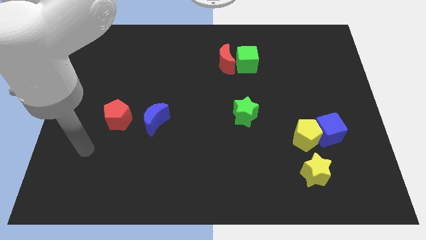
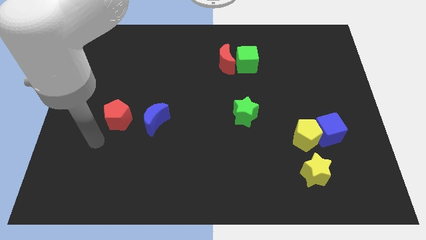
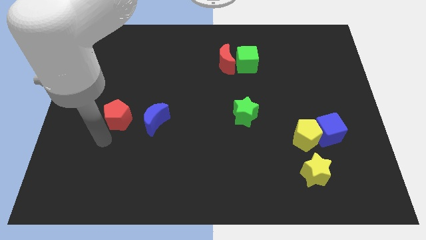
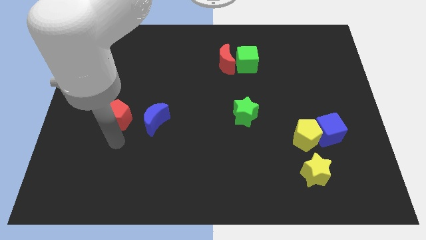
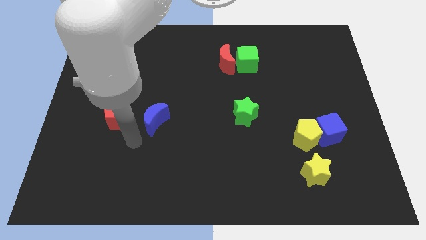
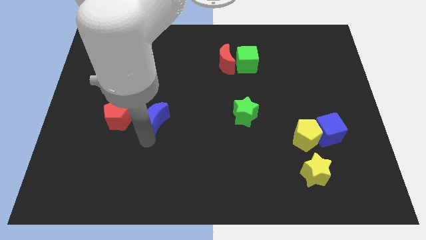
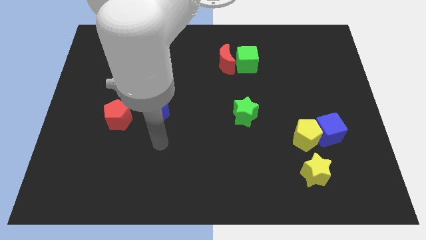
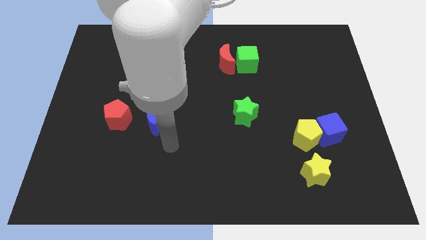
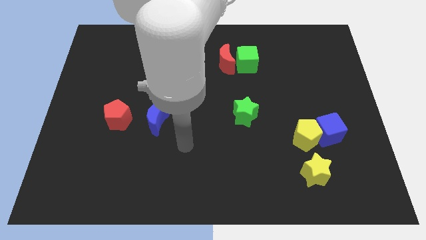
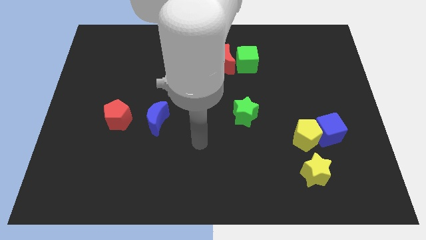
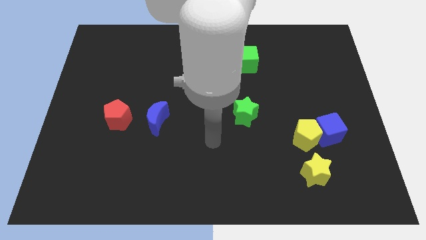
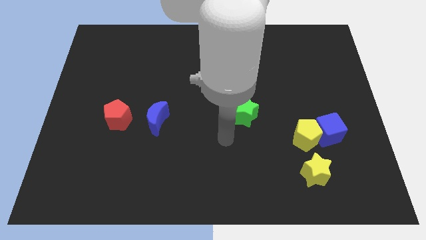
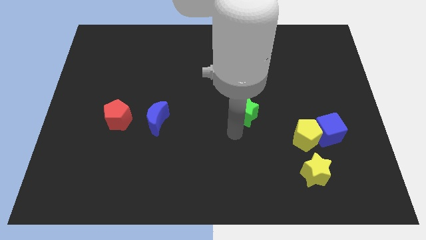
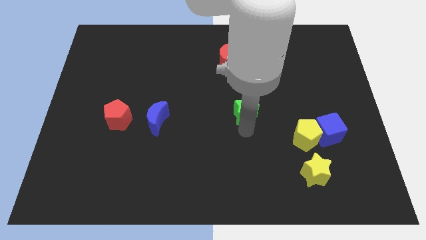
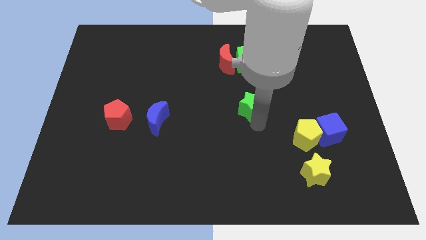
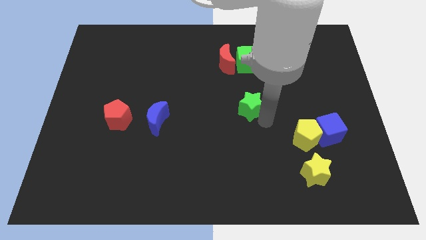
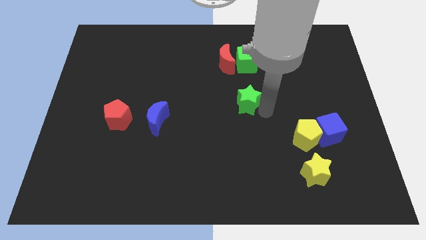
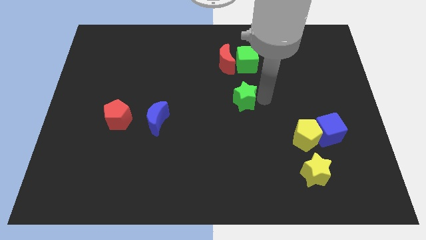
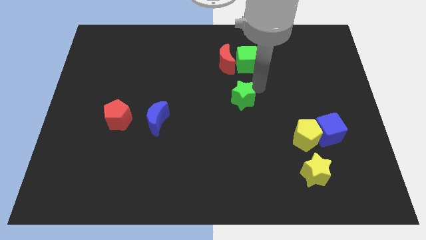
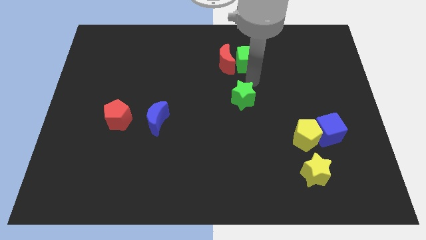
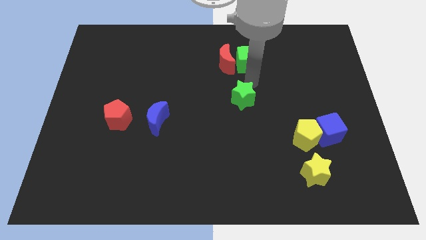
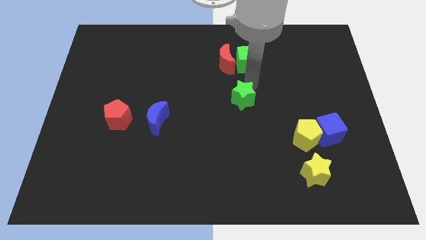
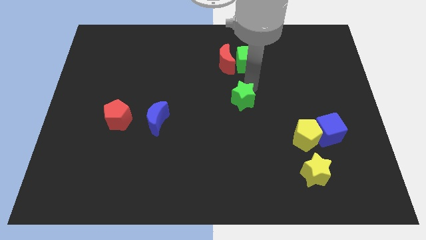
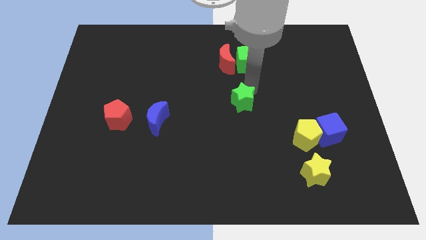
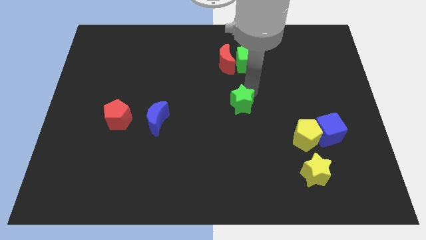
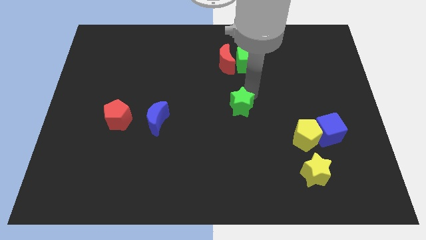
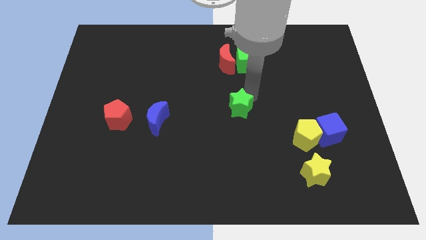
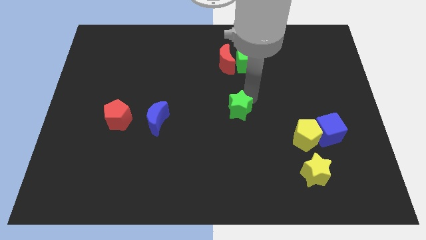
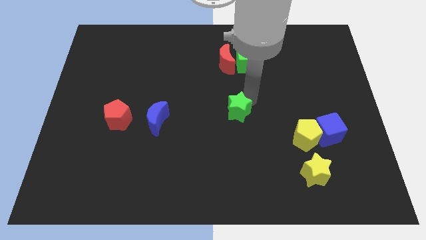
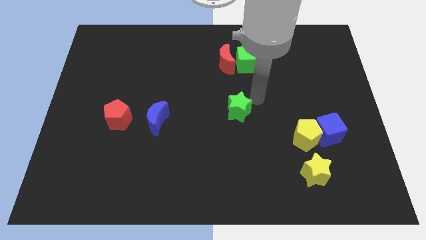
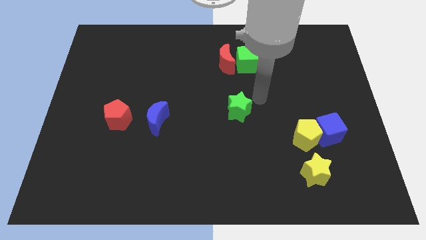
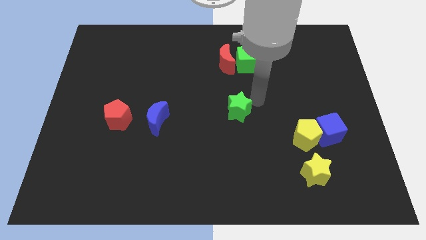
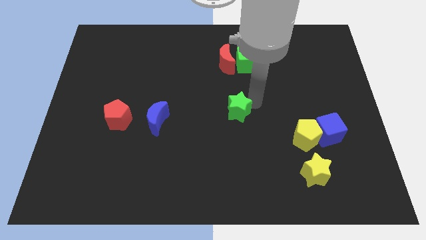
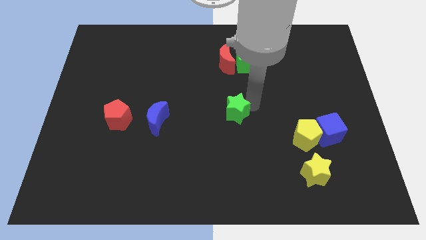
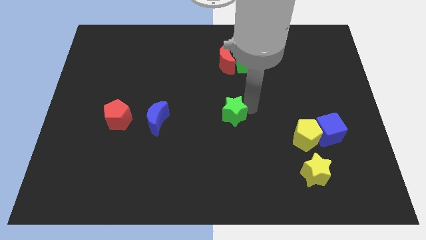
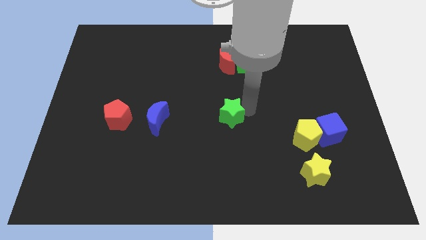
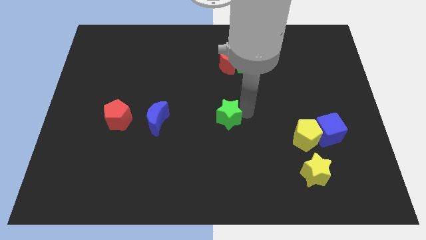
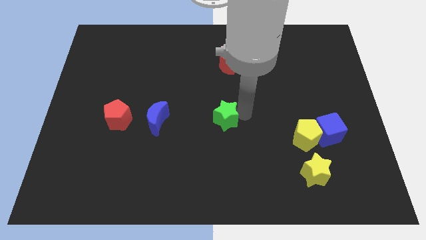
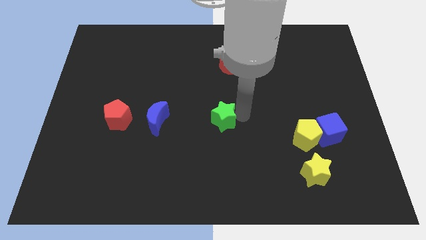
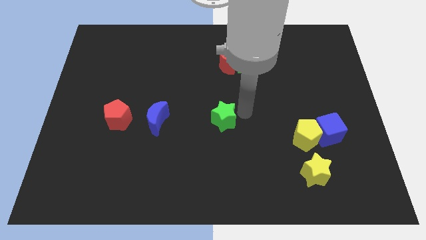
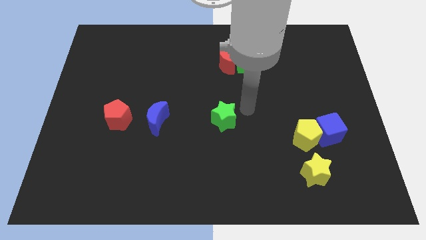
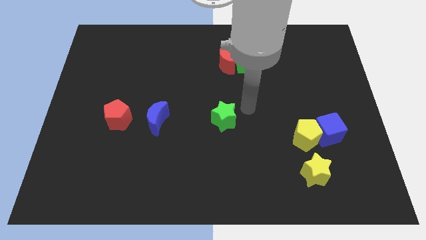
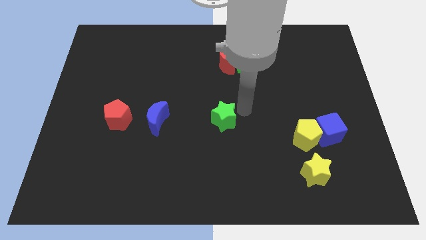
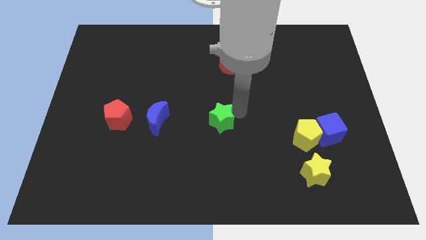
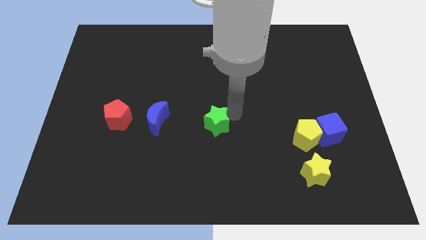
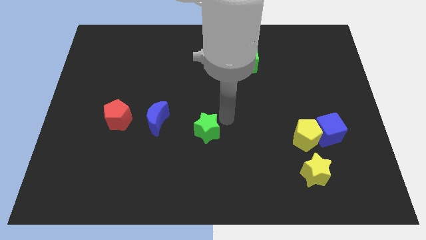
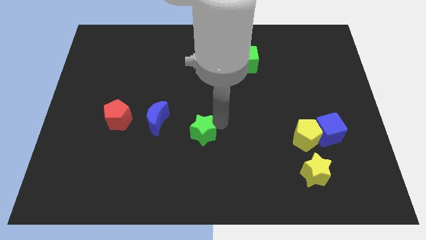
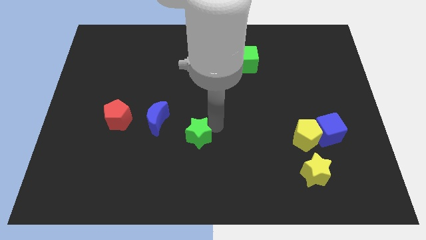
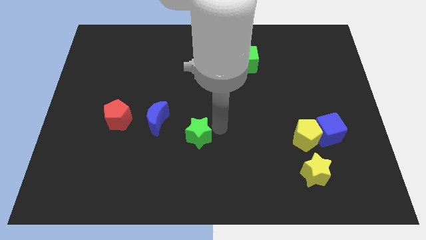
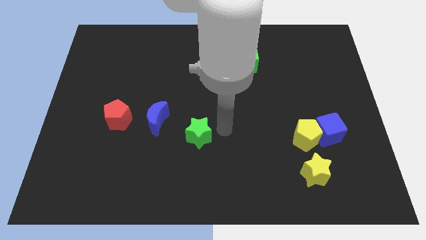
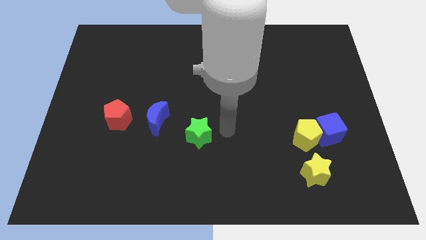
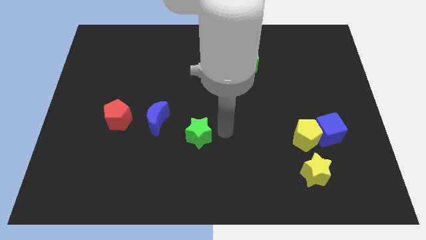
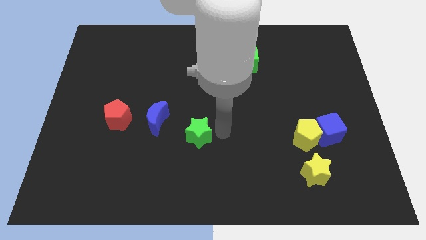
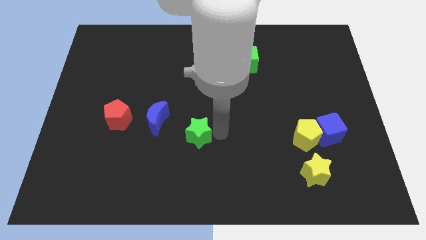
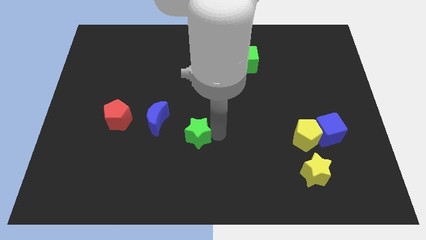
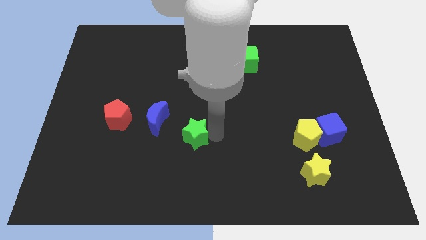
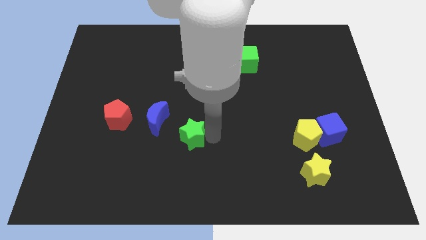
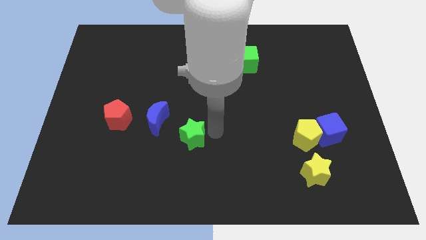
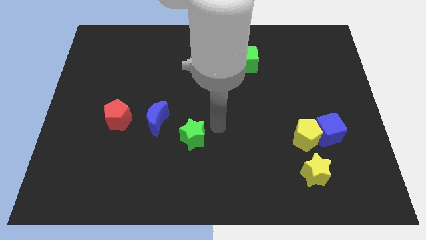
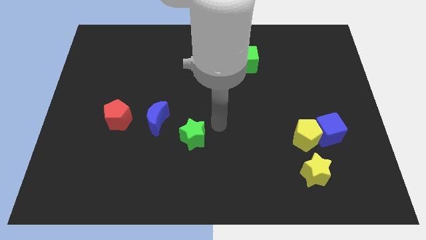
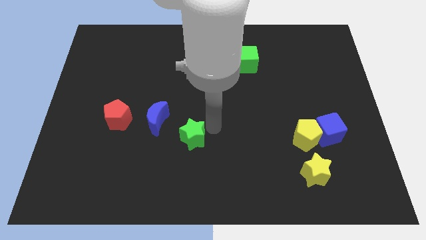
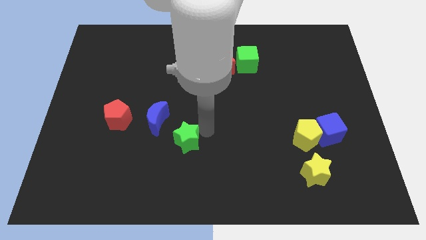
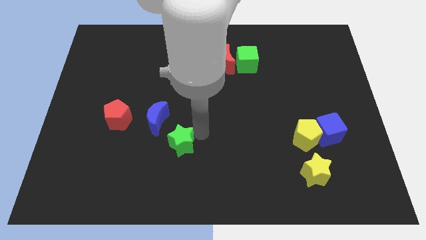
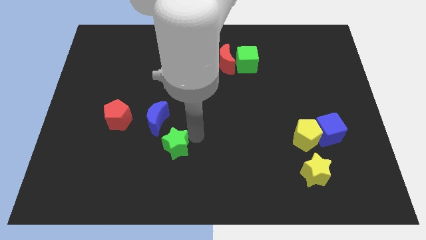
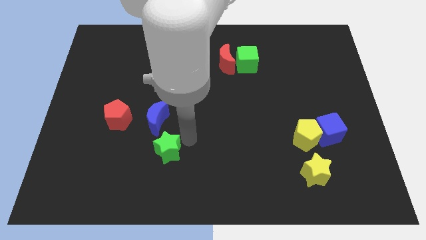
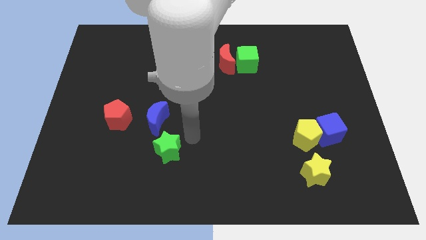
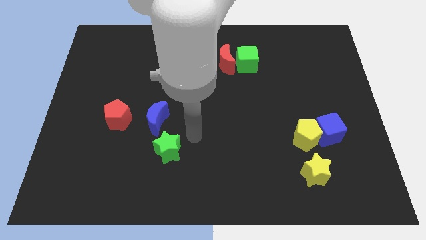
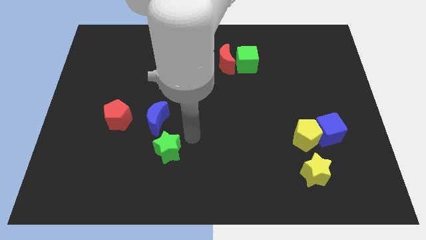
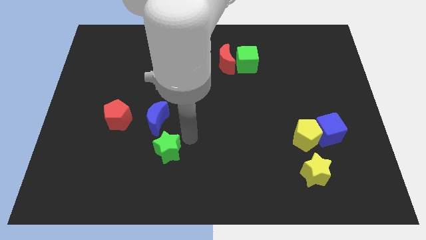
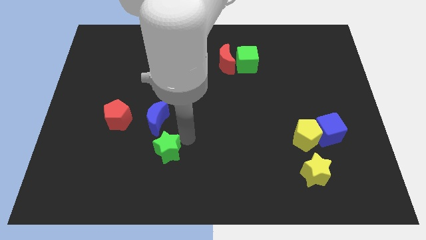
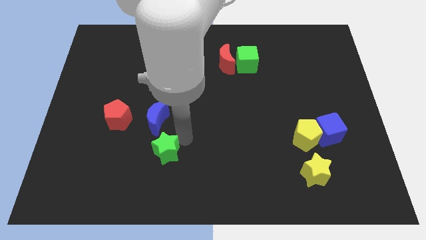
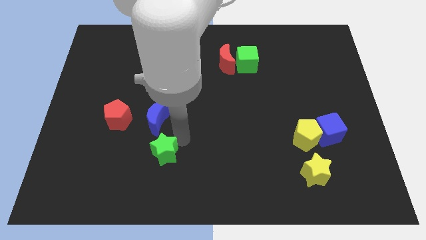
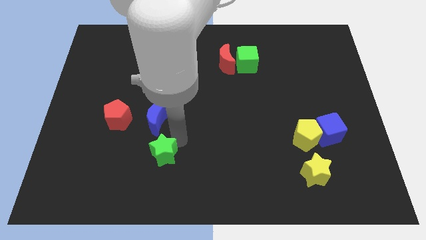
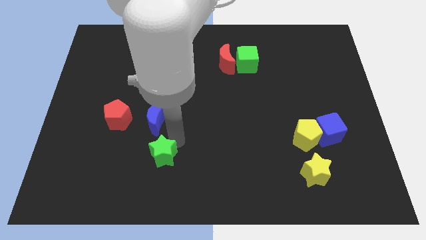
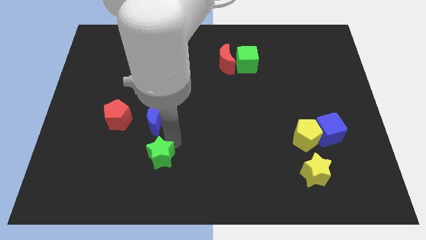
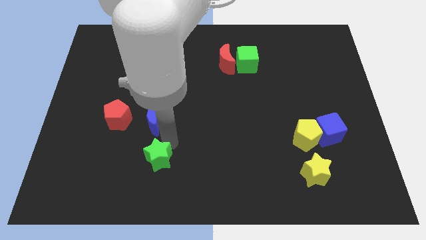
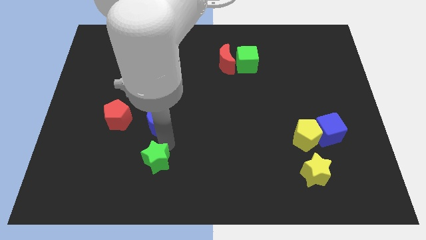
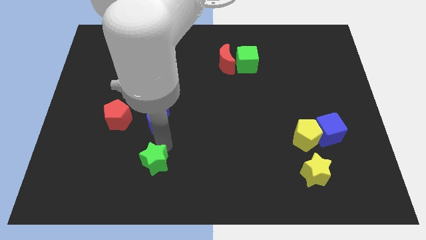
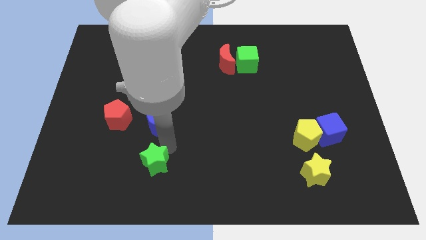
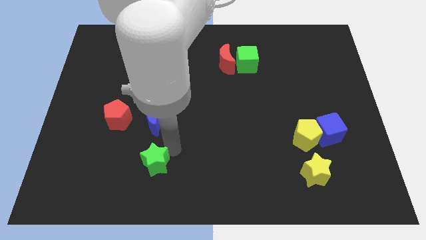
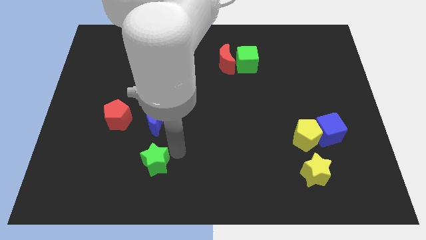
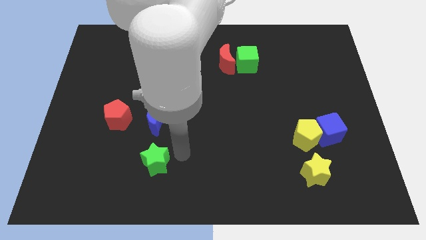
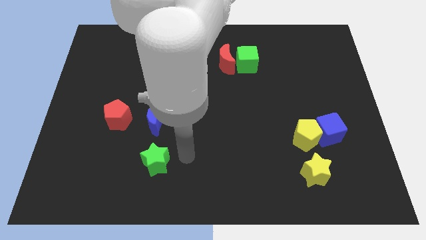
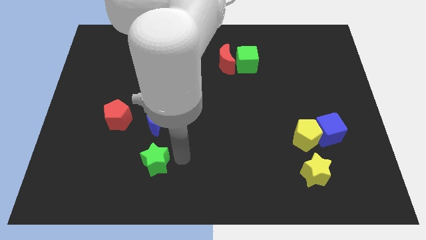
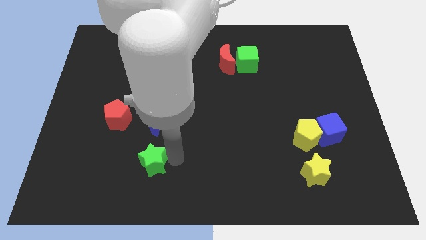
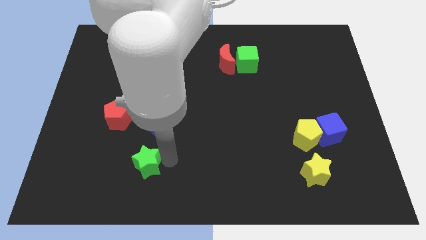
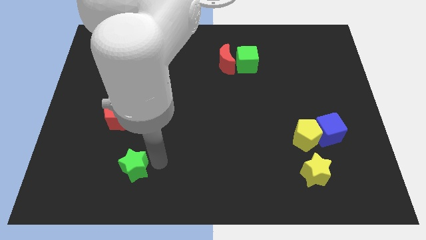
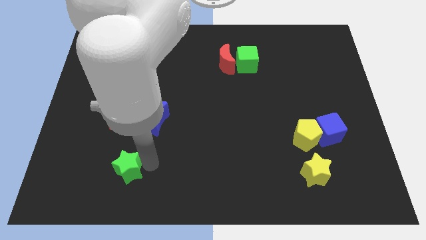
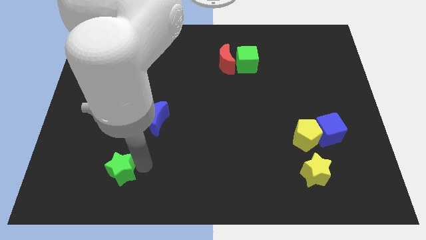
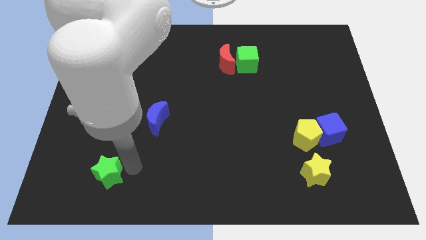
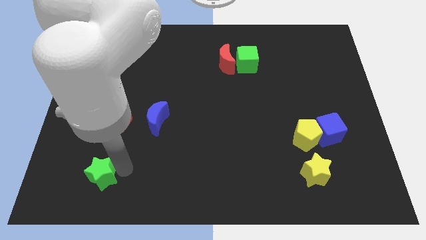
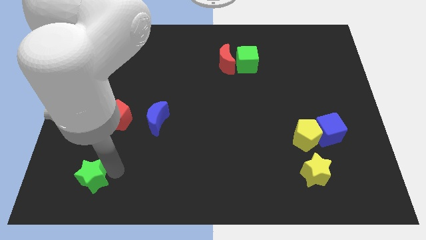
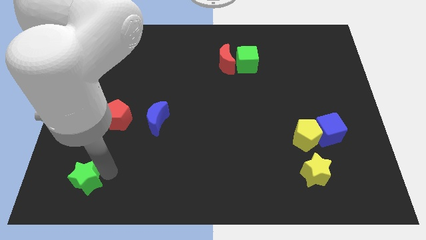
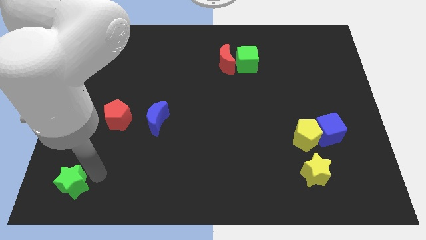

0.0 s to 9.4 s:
put the green star to the lower left corner
